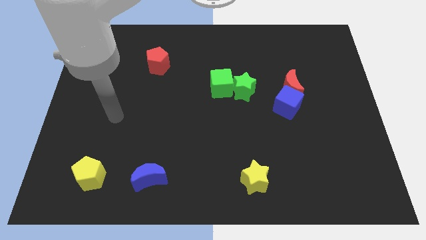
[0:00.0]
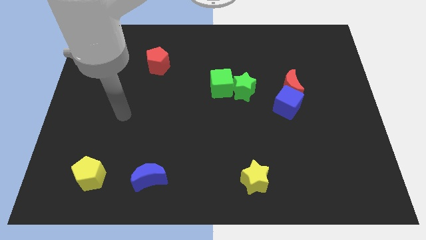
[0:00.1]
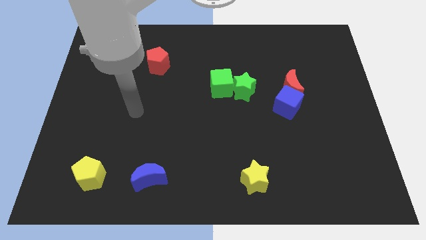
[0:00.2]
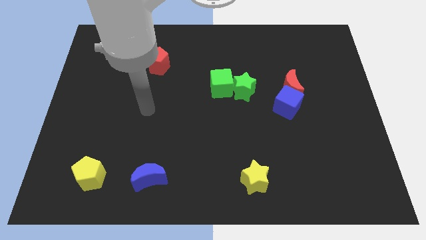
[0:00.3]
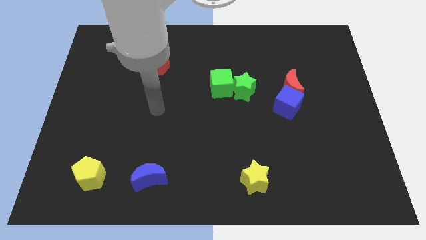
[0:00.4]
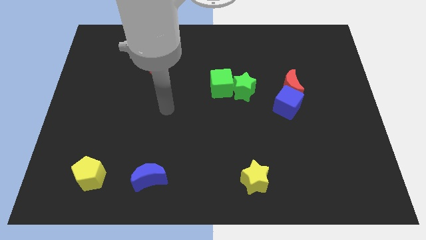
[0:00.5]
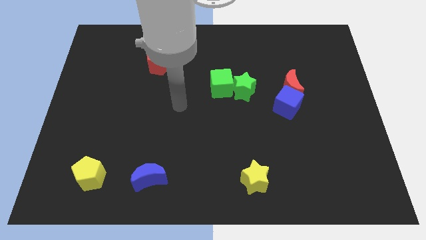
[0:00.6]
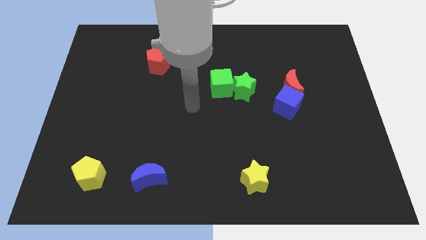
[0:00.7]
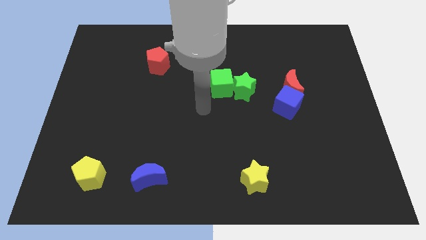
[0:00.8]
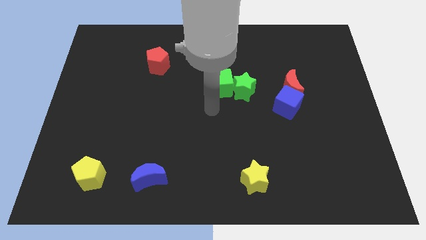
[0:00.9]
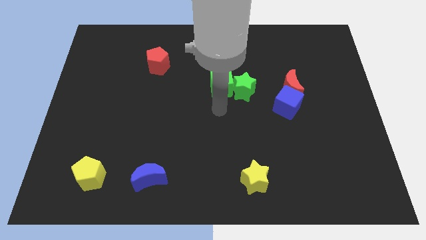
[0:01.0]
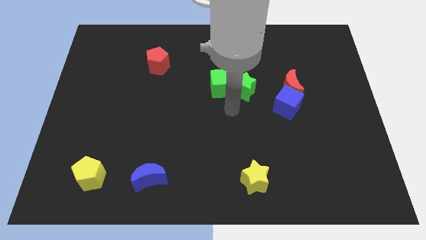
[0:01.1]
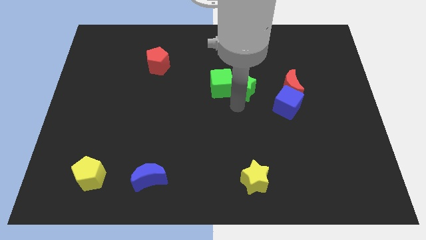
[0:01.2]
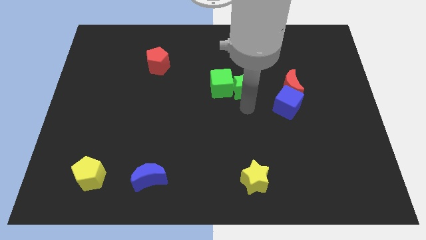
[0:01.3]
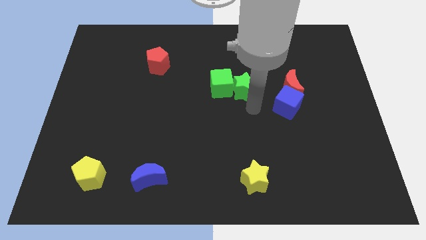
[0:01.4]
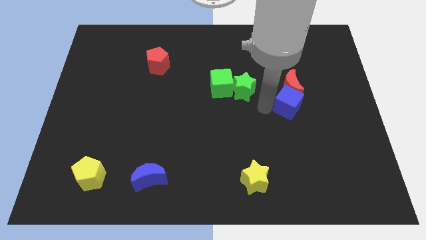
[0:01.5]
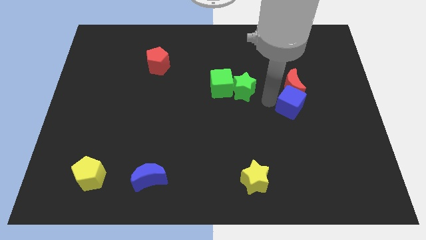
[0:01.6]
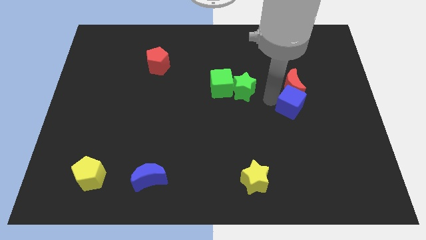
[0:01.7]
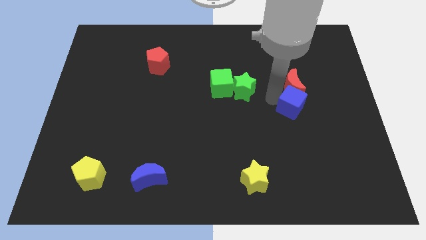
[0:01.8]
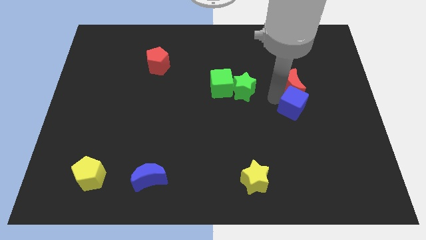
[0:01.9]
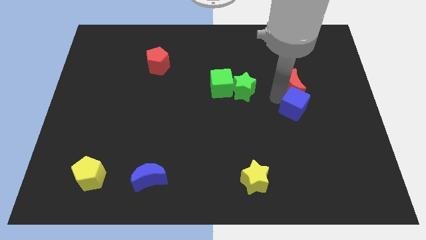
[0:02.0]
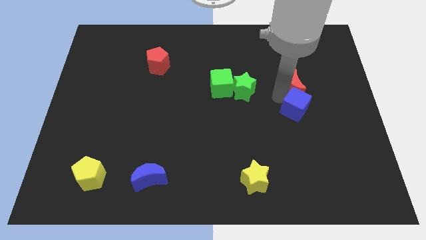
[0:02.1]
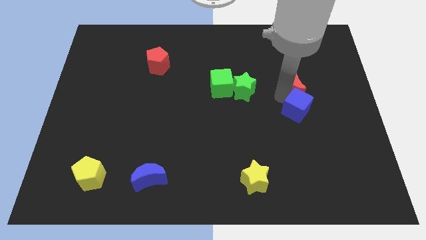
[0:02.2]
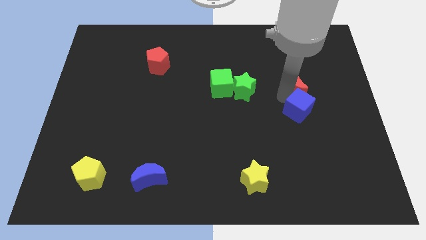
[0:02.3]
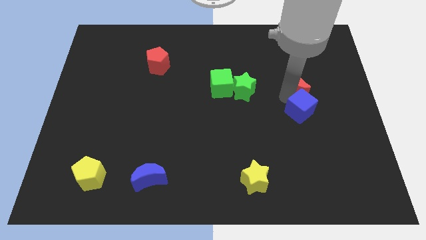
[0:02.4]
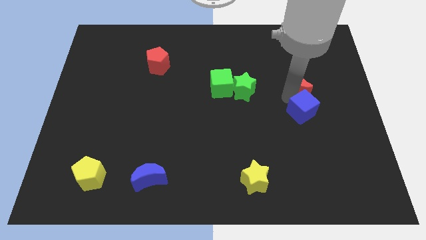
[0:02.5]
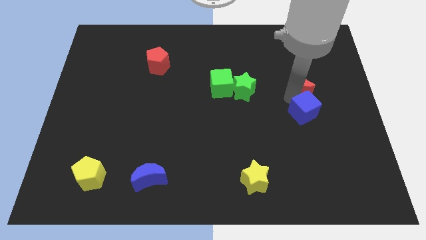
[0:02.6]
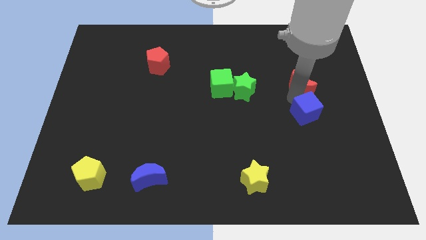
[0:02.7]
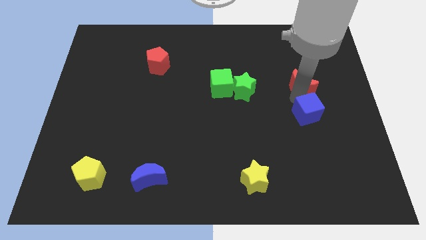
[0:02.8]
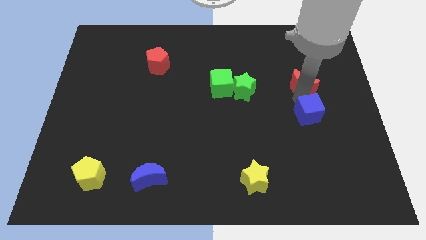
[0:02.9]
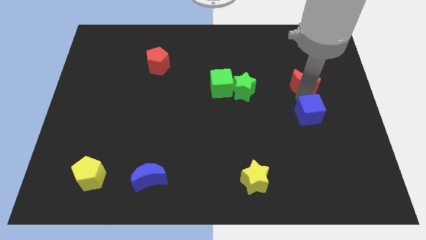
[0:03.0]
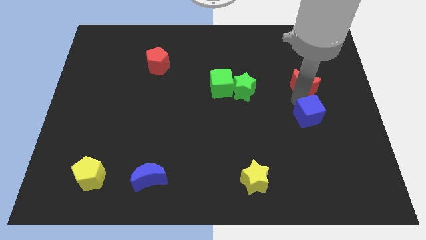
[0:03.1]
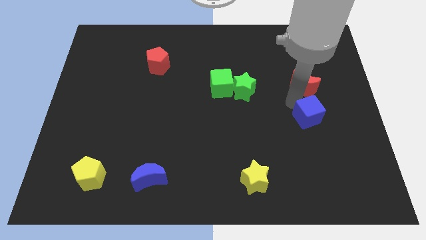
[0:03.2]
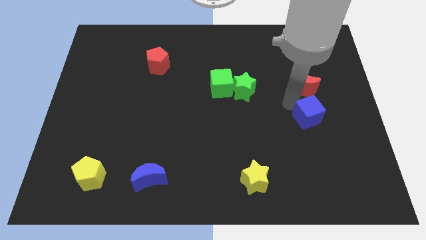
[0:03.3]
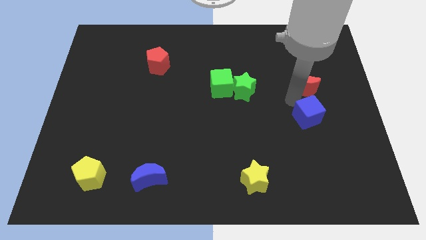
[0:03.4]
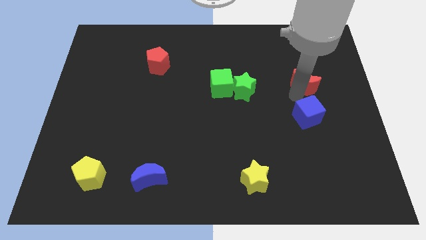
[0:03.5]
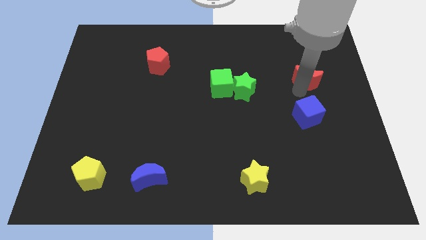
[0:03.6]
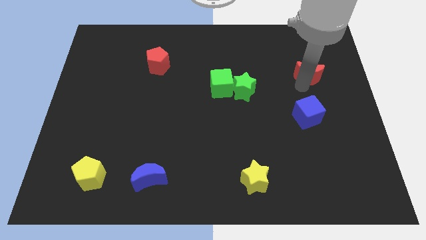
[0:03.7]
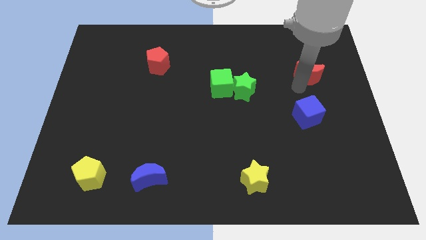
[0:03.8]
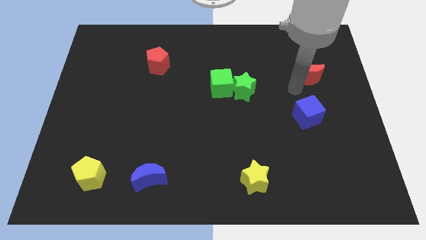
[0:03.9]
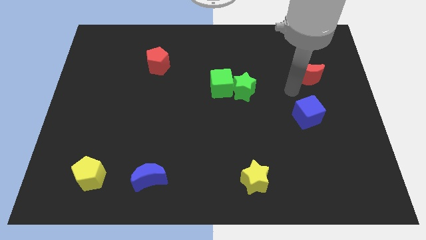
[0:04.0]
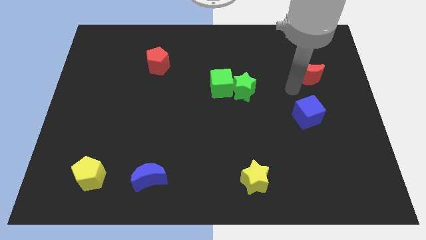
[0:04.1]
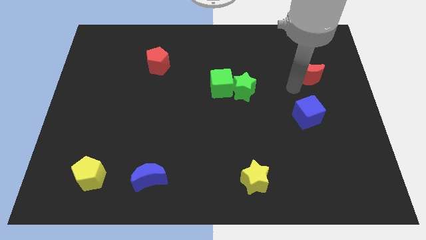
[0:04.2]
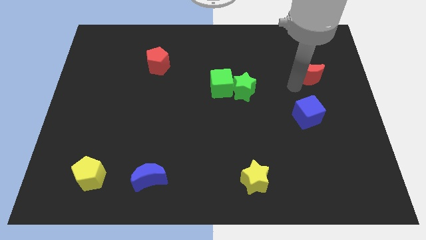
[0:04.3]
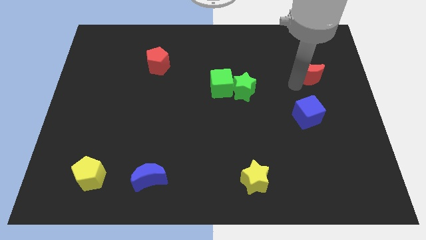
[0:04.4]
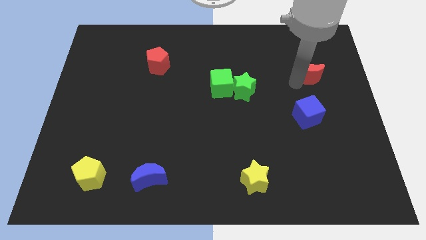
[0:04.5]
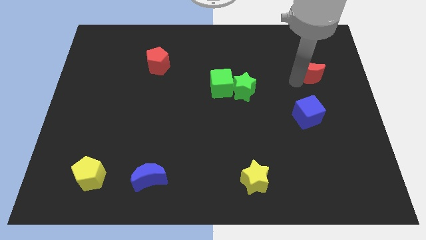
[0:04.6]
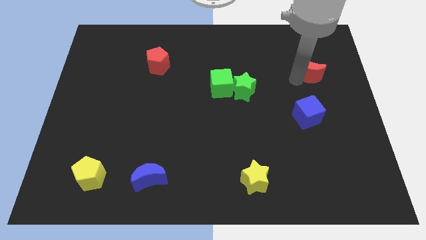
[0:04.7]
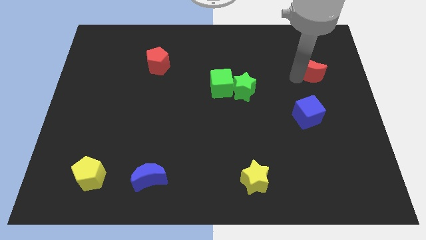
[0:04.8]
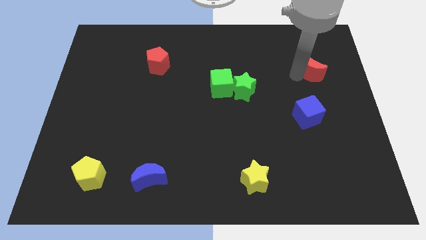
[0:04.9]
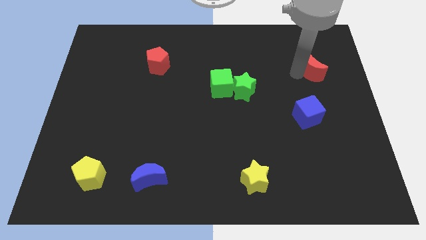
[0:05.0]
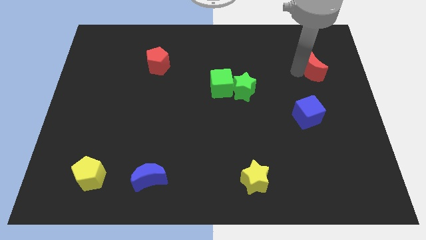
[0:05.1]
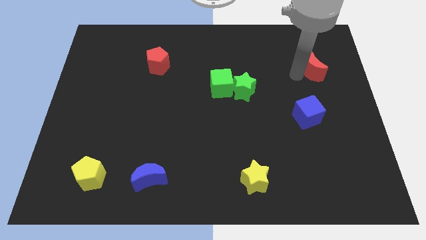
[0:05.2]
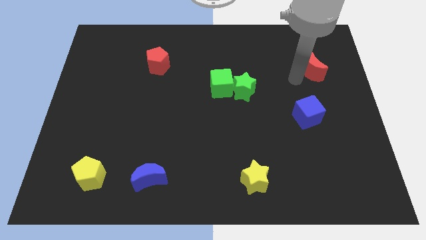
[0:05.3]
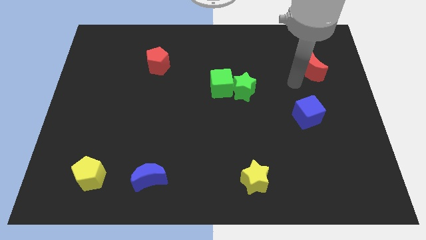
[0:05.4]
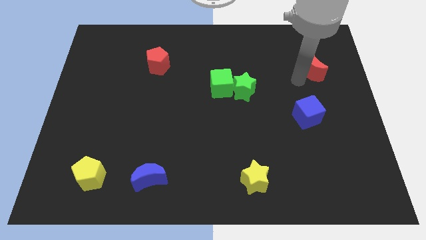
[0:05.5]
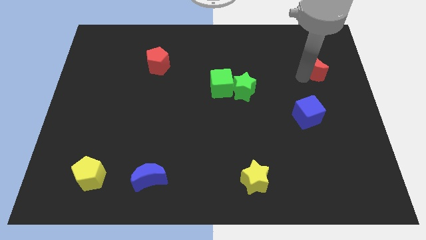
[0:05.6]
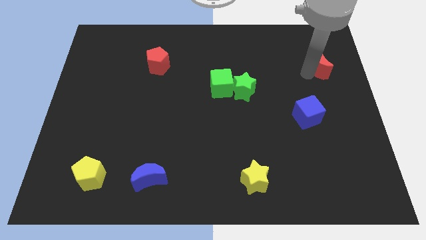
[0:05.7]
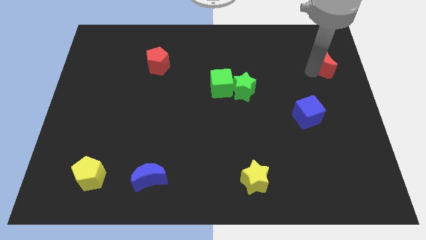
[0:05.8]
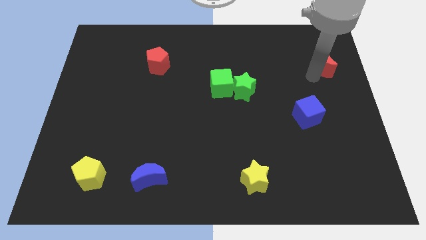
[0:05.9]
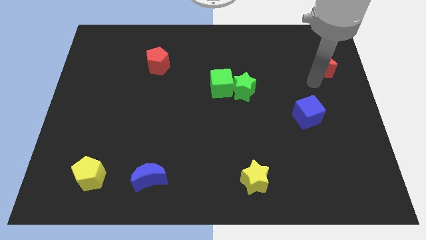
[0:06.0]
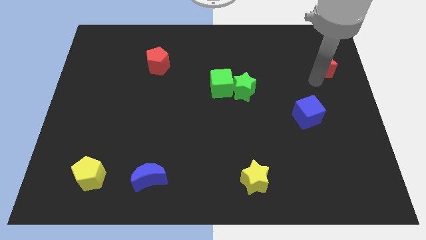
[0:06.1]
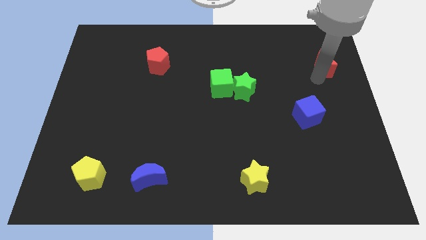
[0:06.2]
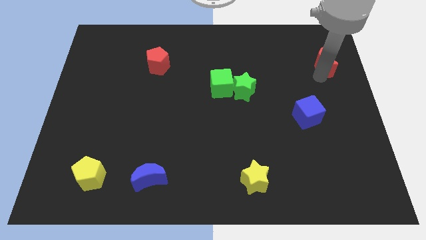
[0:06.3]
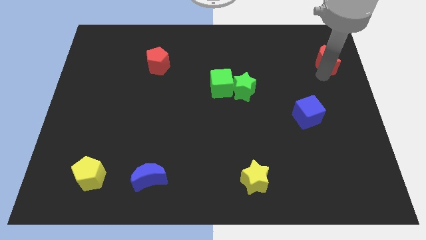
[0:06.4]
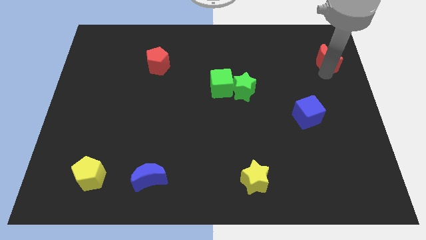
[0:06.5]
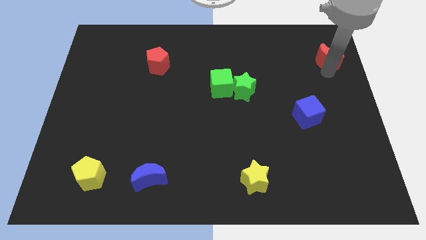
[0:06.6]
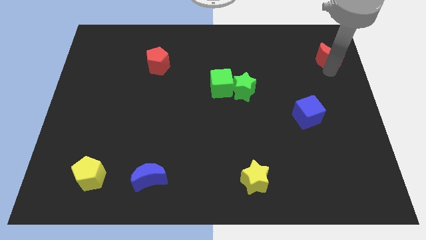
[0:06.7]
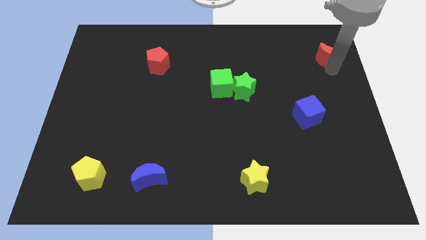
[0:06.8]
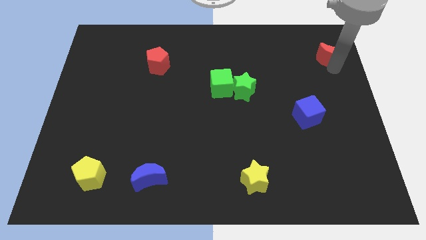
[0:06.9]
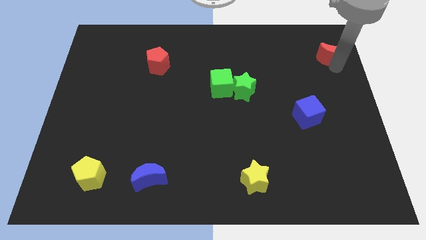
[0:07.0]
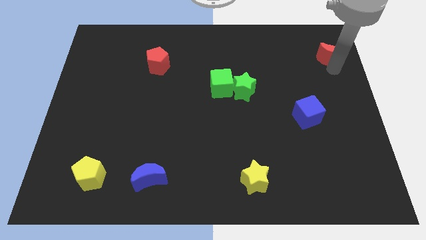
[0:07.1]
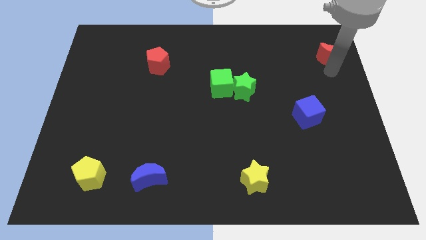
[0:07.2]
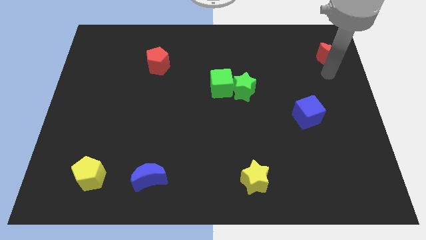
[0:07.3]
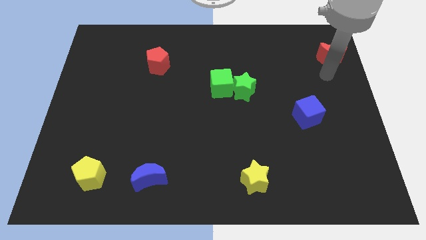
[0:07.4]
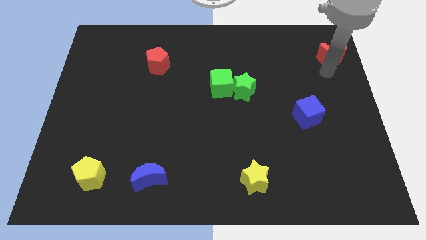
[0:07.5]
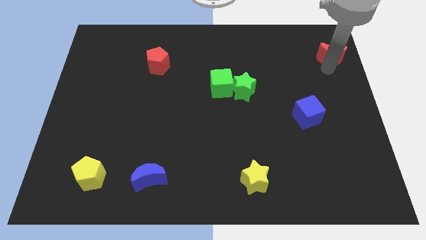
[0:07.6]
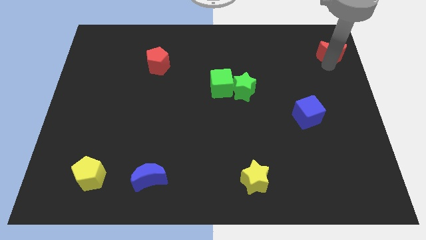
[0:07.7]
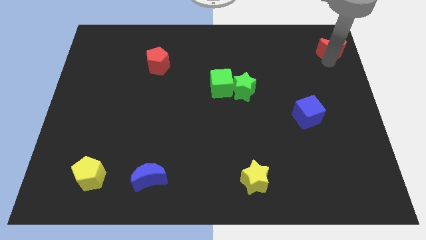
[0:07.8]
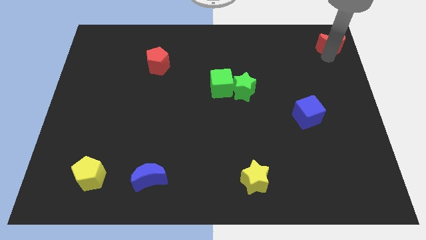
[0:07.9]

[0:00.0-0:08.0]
move the red moon to the top right of the board
